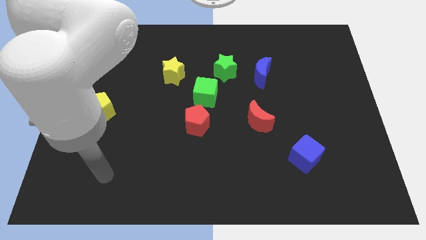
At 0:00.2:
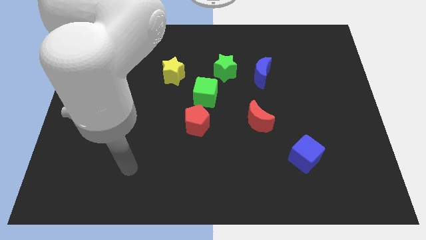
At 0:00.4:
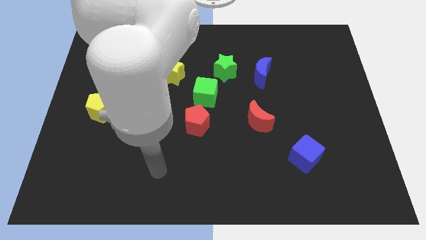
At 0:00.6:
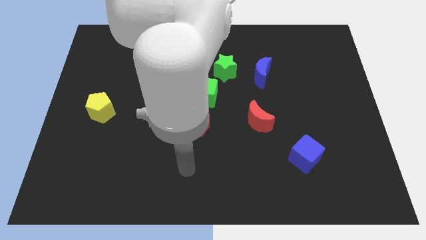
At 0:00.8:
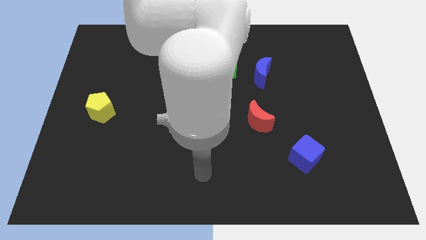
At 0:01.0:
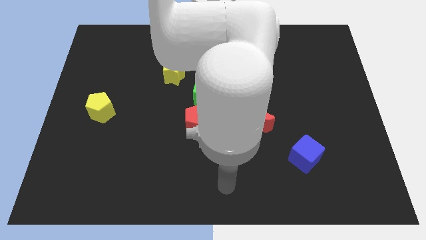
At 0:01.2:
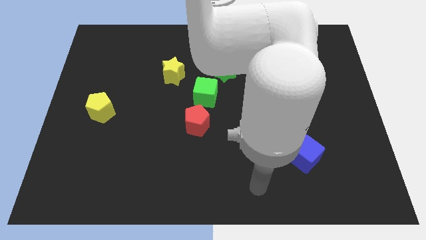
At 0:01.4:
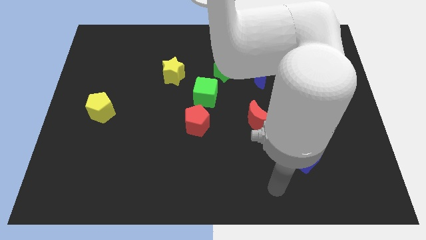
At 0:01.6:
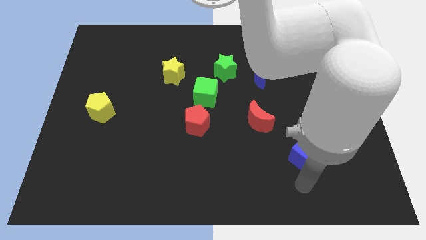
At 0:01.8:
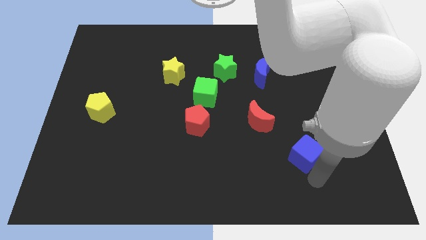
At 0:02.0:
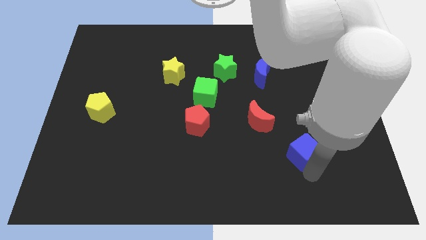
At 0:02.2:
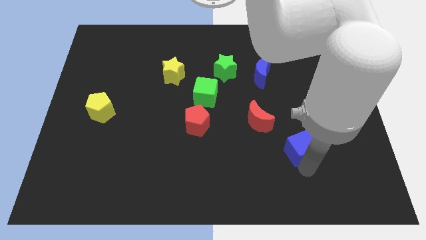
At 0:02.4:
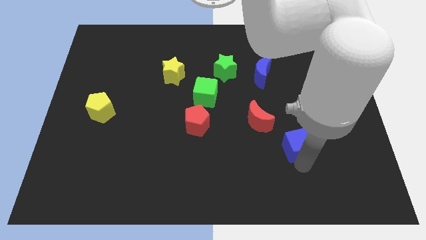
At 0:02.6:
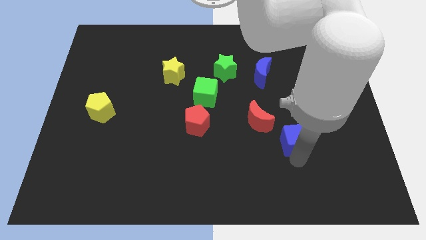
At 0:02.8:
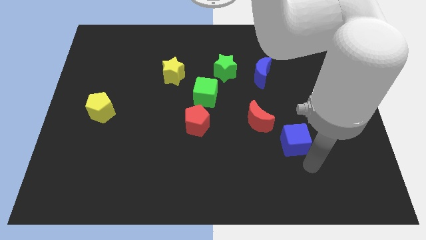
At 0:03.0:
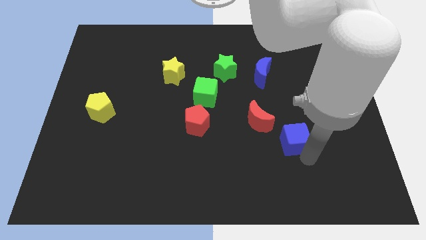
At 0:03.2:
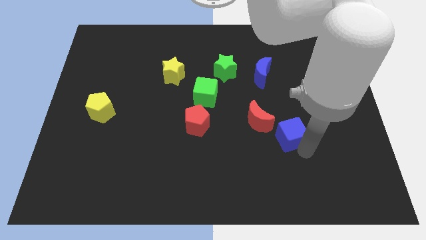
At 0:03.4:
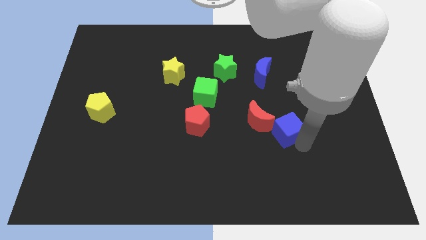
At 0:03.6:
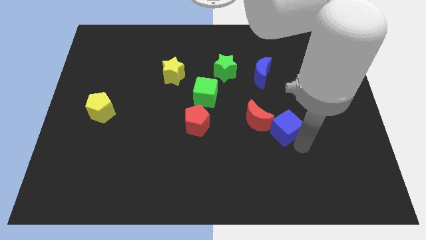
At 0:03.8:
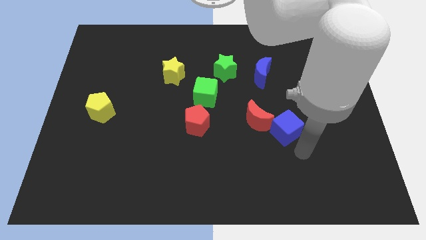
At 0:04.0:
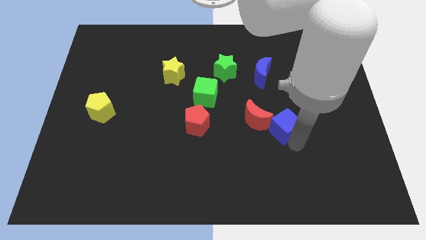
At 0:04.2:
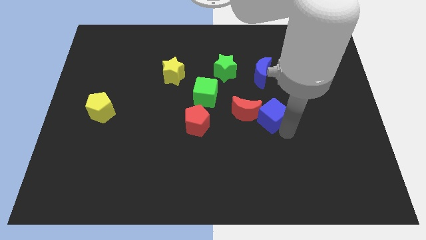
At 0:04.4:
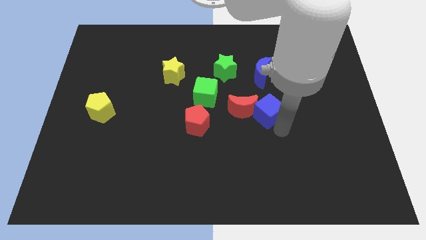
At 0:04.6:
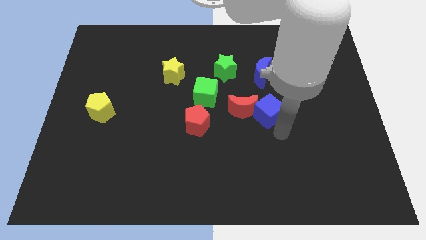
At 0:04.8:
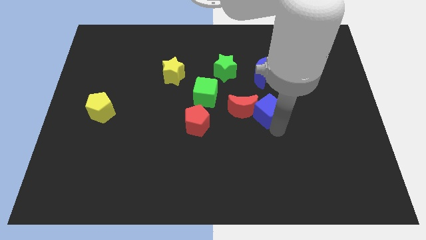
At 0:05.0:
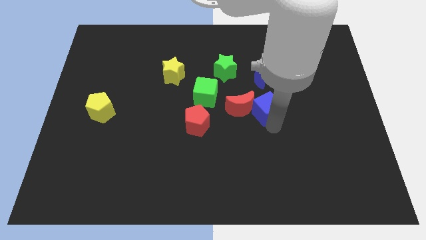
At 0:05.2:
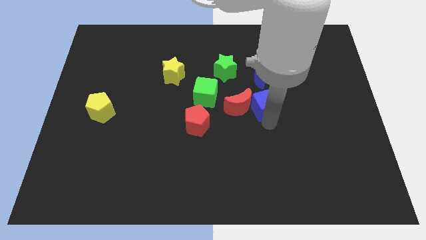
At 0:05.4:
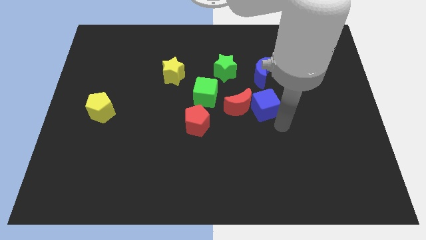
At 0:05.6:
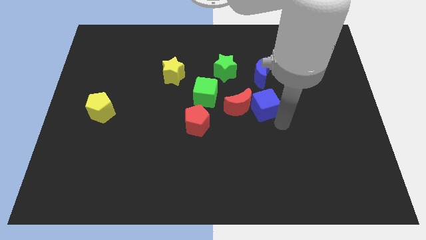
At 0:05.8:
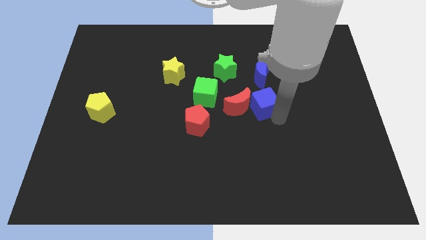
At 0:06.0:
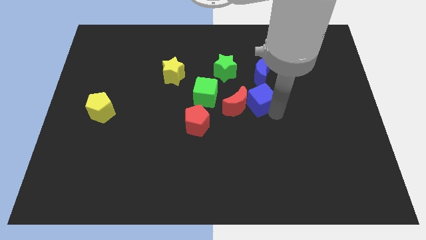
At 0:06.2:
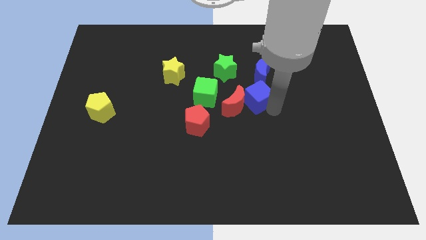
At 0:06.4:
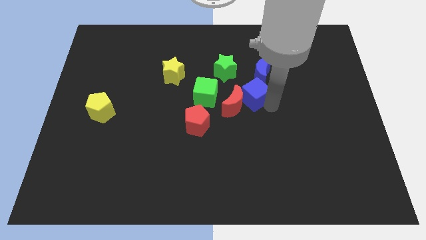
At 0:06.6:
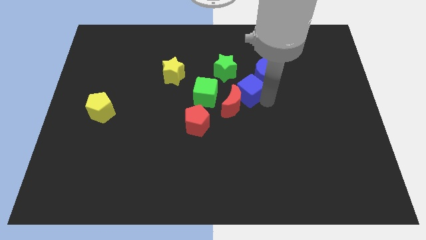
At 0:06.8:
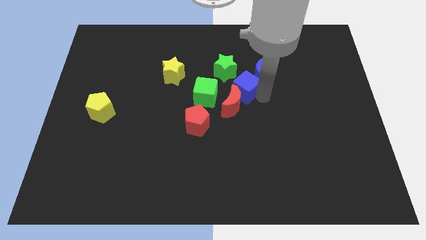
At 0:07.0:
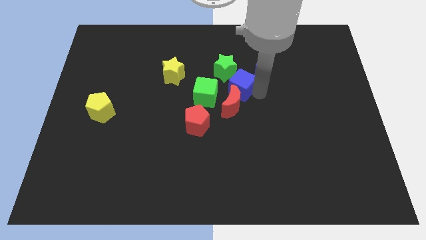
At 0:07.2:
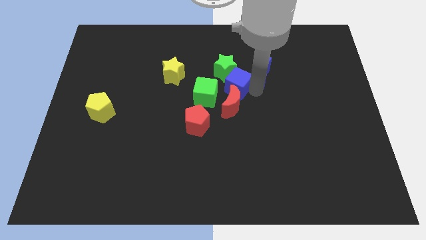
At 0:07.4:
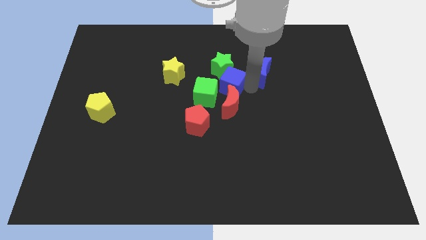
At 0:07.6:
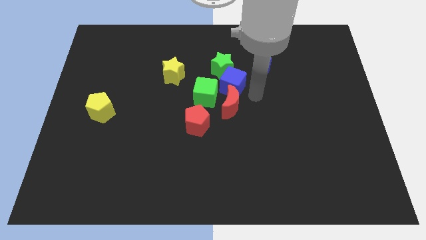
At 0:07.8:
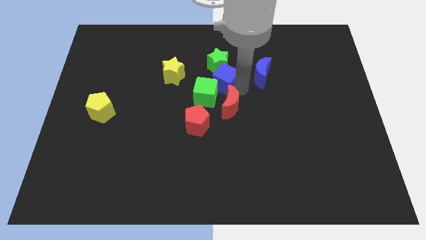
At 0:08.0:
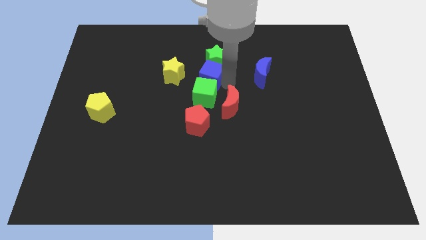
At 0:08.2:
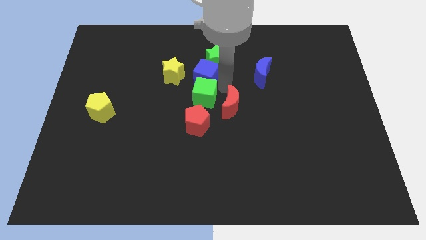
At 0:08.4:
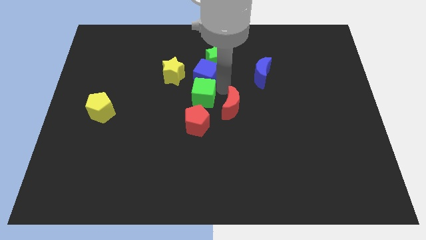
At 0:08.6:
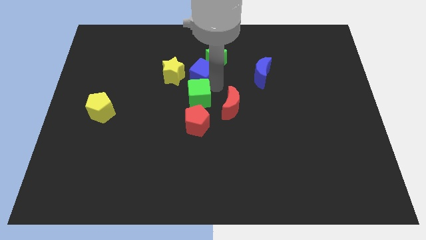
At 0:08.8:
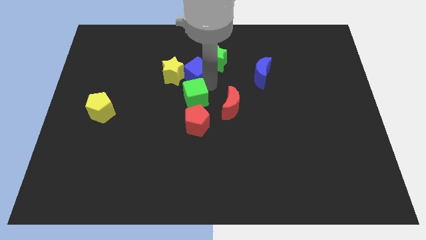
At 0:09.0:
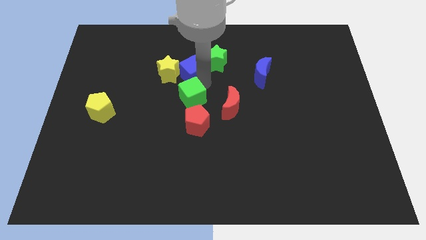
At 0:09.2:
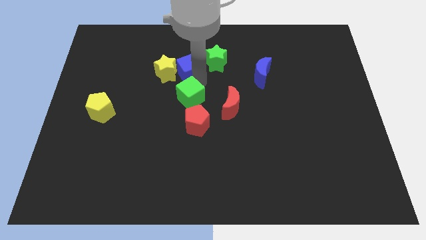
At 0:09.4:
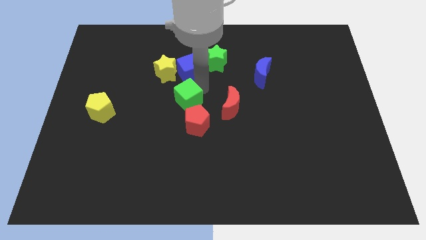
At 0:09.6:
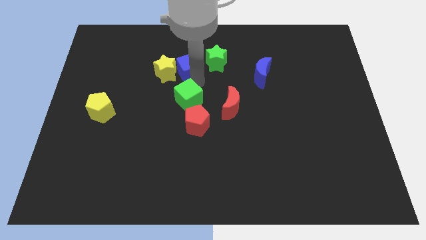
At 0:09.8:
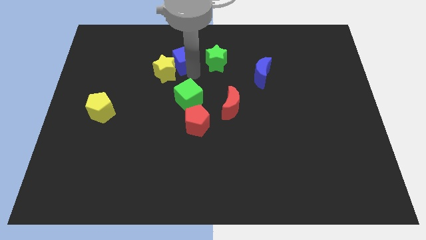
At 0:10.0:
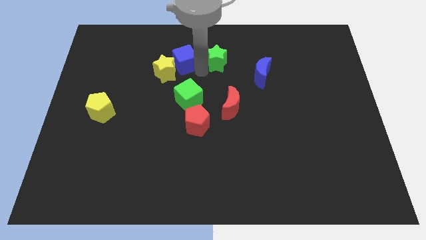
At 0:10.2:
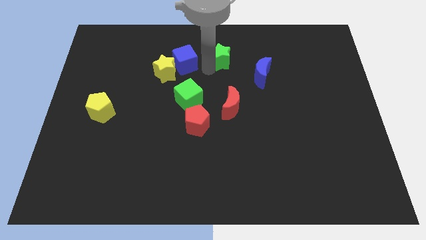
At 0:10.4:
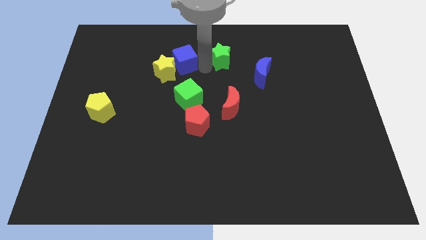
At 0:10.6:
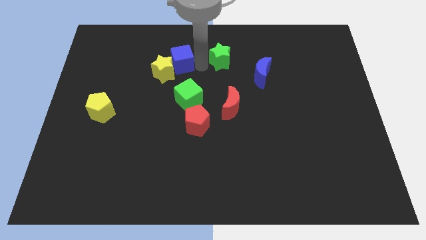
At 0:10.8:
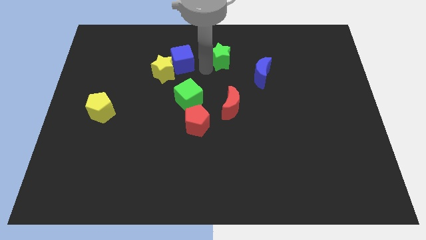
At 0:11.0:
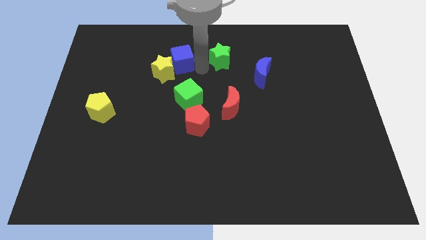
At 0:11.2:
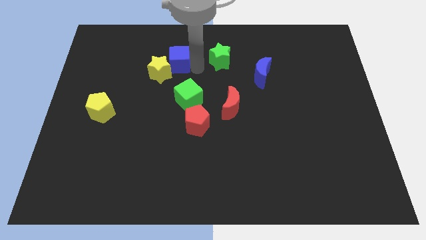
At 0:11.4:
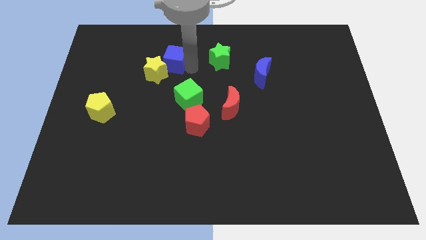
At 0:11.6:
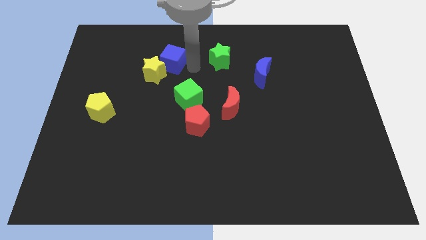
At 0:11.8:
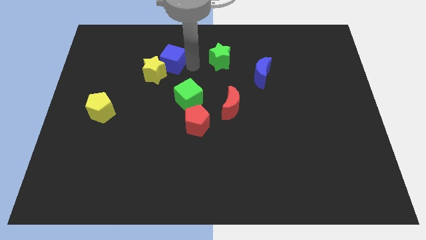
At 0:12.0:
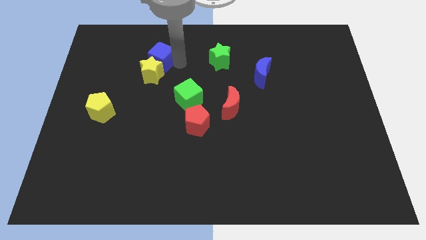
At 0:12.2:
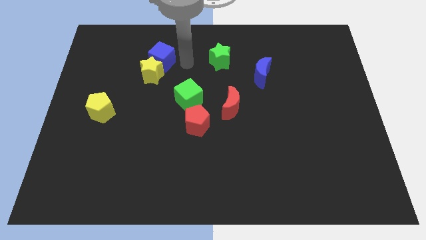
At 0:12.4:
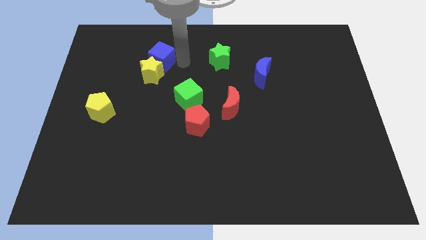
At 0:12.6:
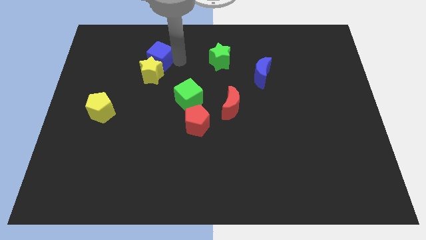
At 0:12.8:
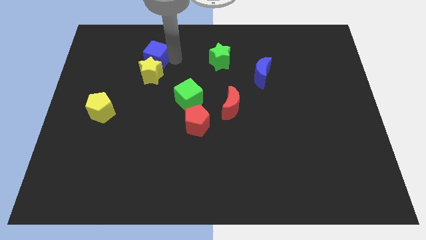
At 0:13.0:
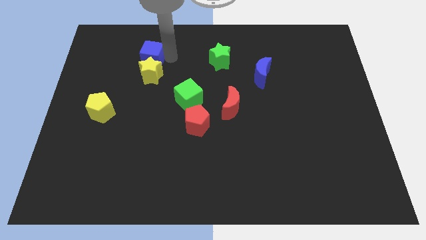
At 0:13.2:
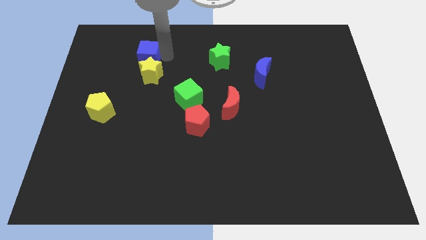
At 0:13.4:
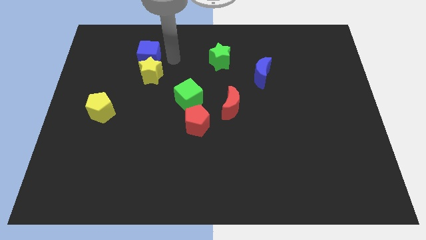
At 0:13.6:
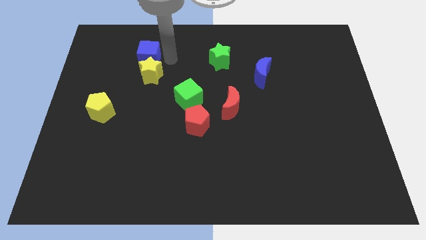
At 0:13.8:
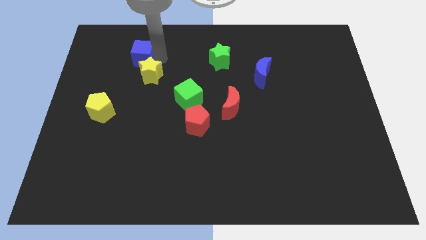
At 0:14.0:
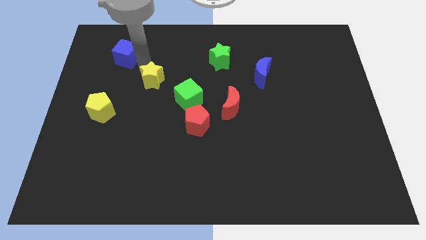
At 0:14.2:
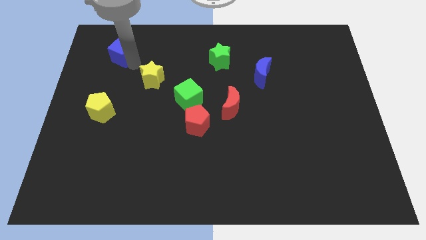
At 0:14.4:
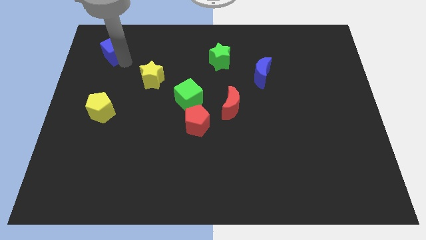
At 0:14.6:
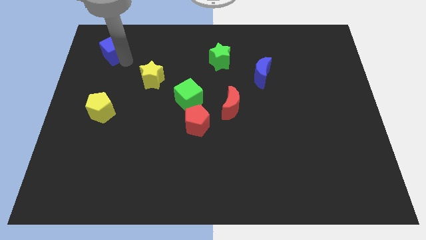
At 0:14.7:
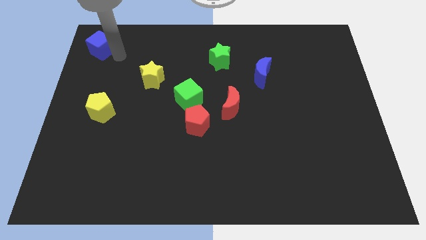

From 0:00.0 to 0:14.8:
move the blue cube to the top left

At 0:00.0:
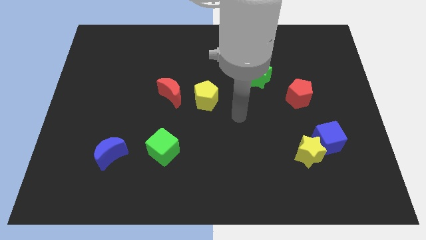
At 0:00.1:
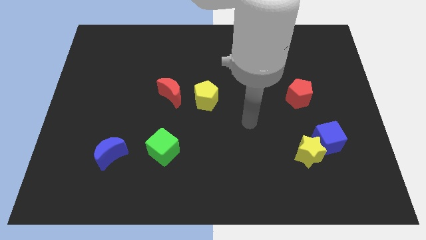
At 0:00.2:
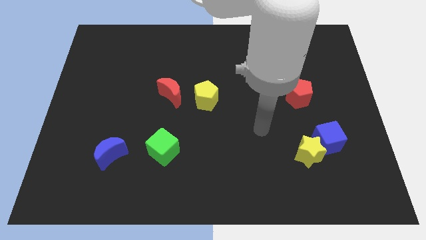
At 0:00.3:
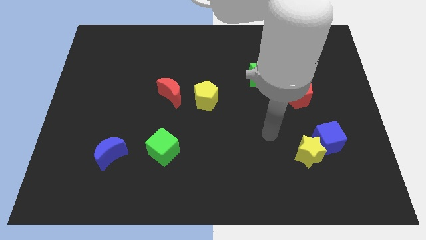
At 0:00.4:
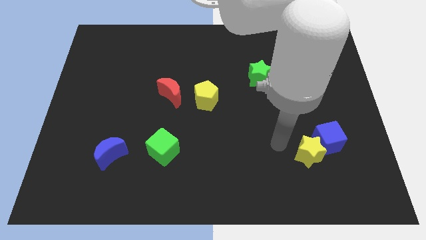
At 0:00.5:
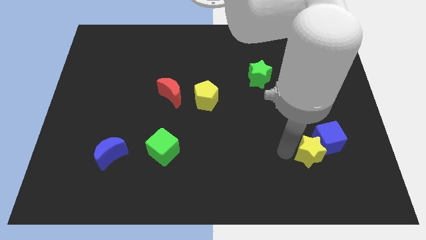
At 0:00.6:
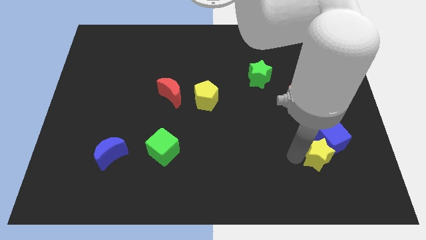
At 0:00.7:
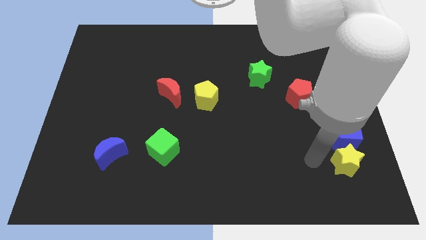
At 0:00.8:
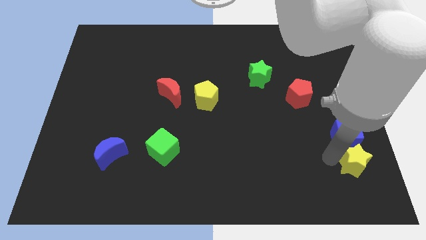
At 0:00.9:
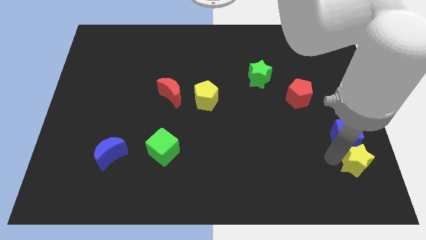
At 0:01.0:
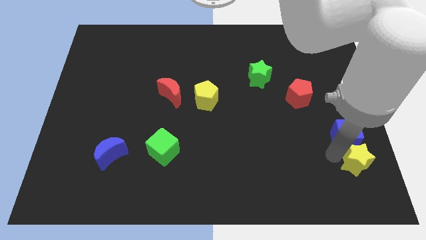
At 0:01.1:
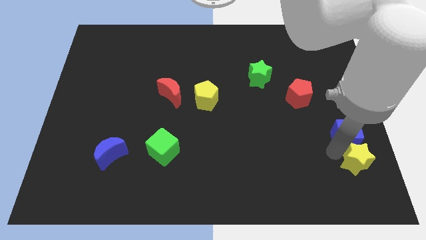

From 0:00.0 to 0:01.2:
put the blue cube to the right side
